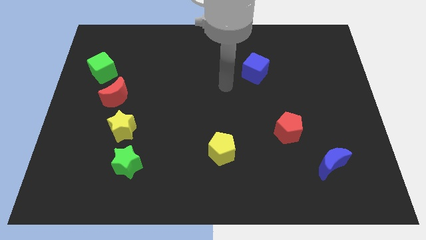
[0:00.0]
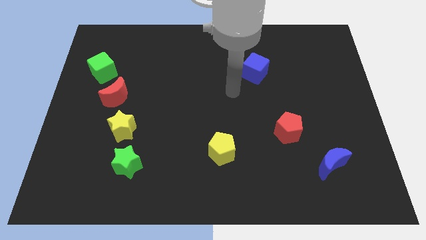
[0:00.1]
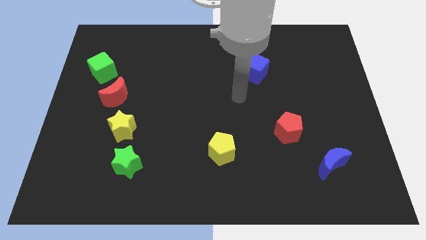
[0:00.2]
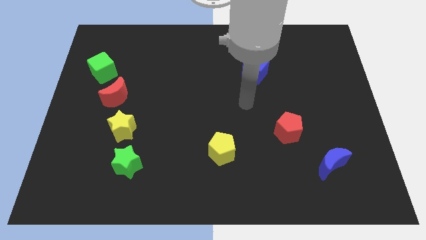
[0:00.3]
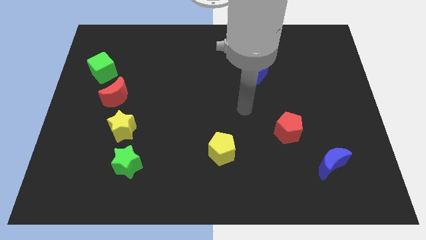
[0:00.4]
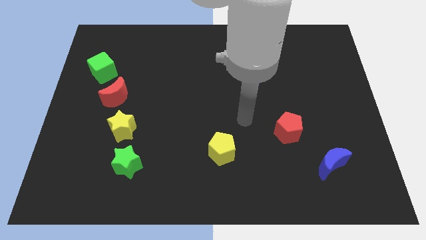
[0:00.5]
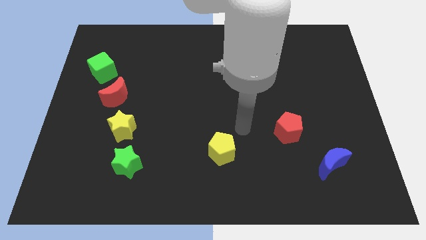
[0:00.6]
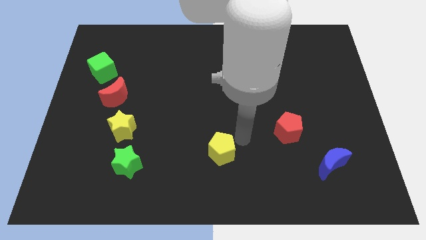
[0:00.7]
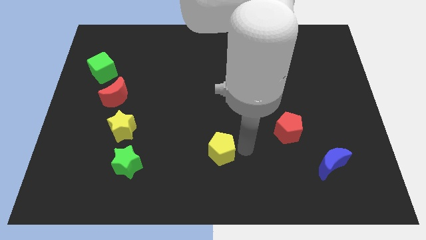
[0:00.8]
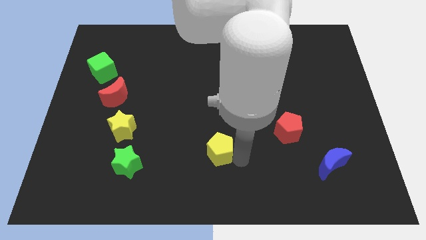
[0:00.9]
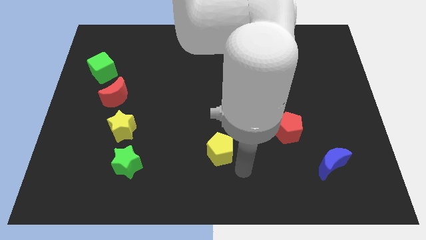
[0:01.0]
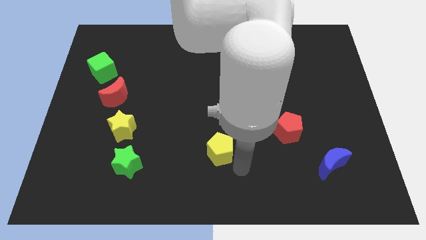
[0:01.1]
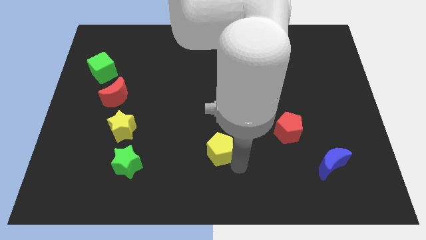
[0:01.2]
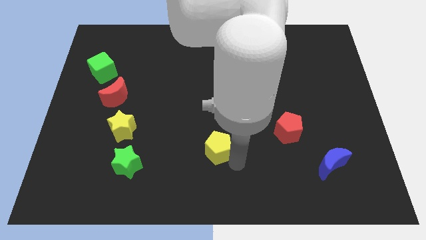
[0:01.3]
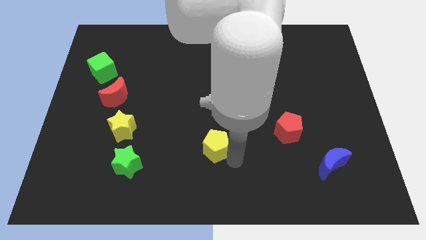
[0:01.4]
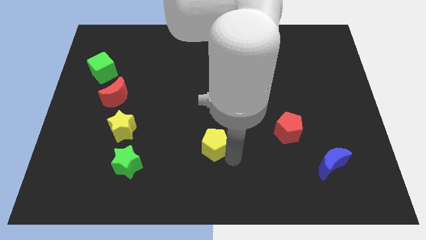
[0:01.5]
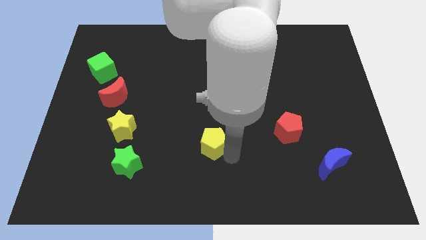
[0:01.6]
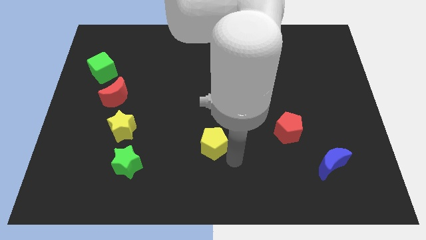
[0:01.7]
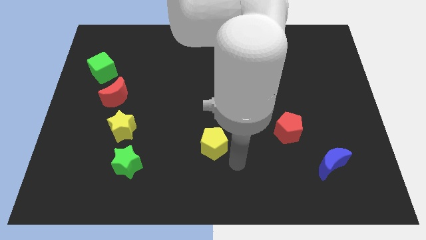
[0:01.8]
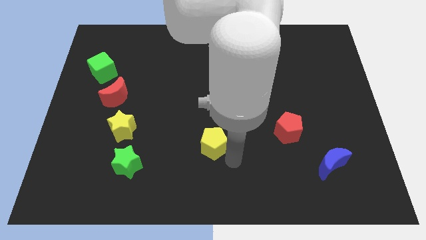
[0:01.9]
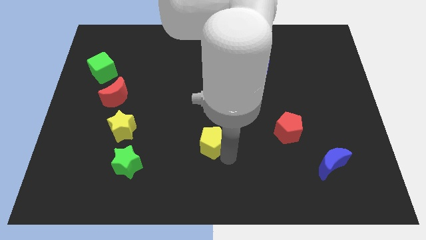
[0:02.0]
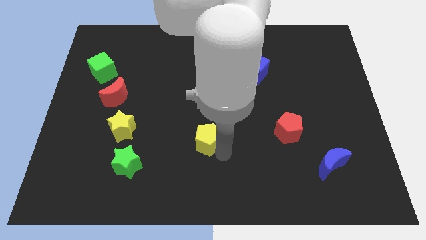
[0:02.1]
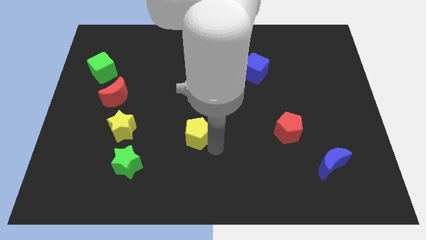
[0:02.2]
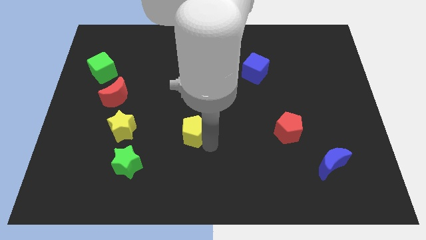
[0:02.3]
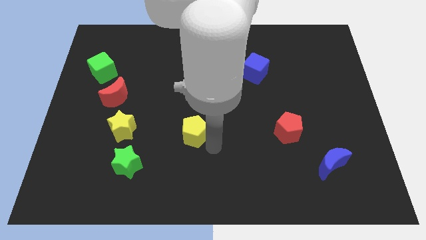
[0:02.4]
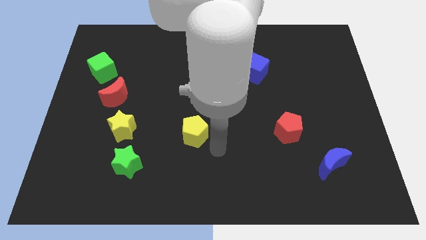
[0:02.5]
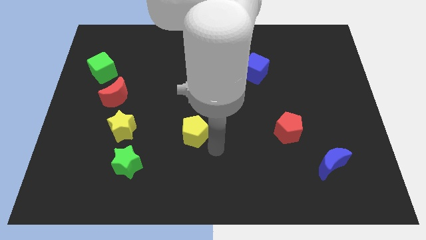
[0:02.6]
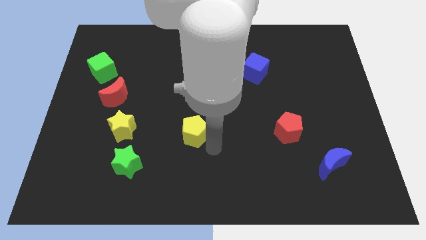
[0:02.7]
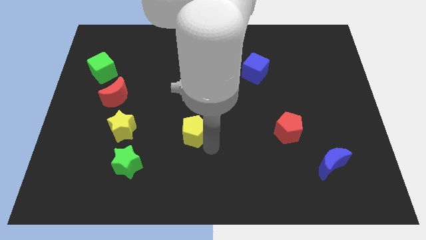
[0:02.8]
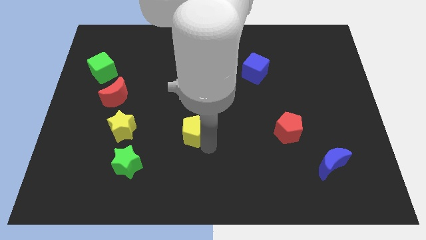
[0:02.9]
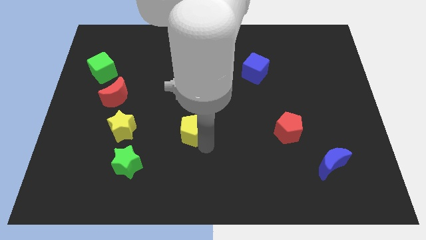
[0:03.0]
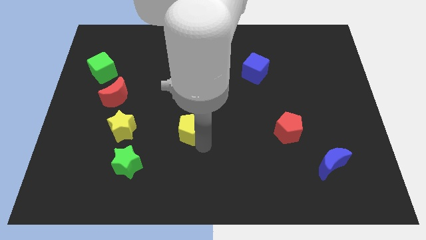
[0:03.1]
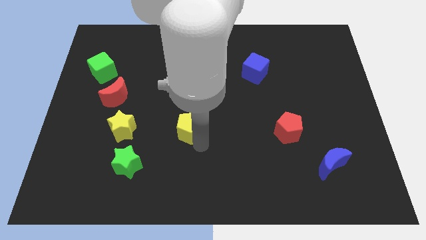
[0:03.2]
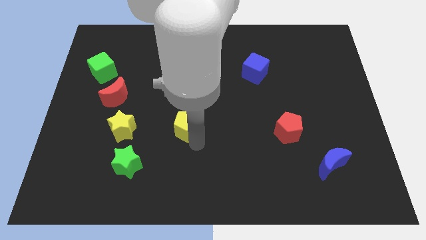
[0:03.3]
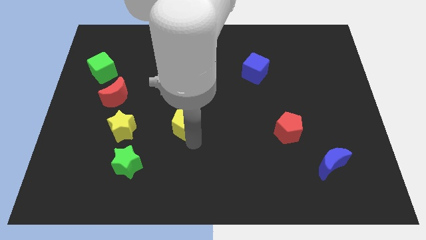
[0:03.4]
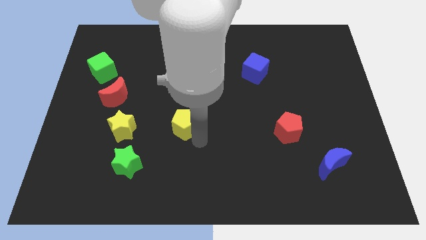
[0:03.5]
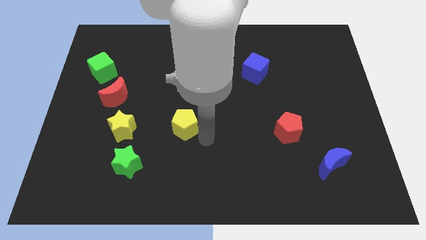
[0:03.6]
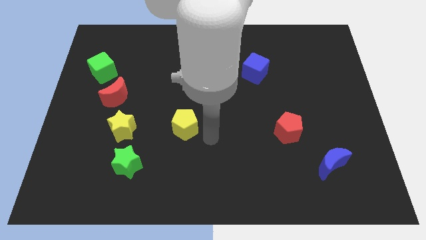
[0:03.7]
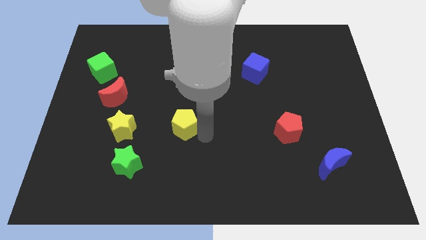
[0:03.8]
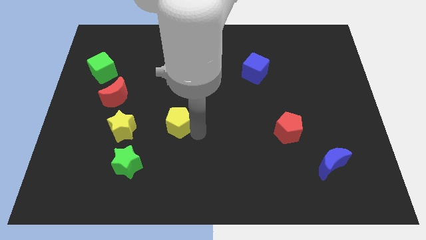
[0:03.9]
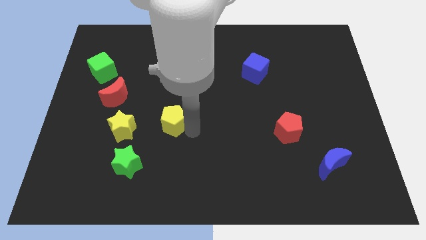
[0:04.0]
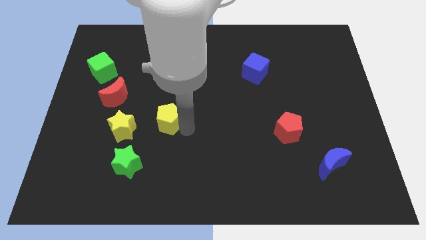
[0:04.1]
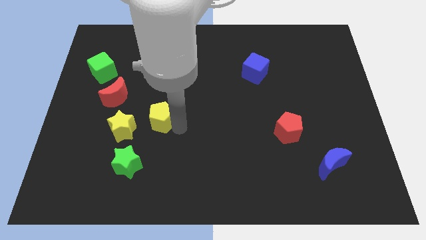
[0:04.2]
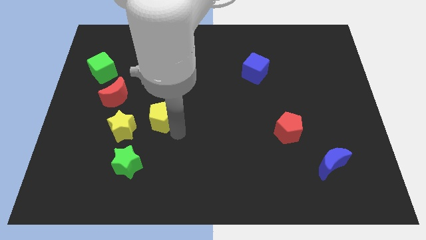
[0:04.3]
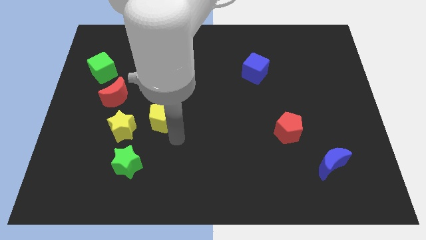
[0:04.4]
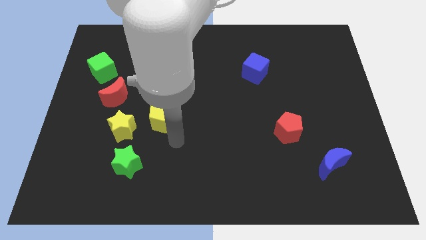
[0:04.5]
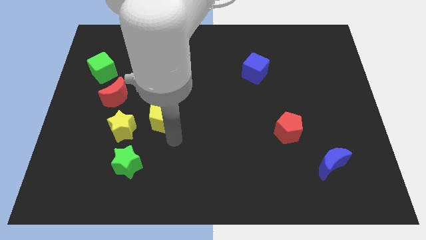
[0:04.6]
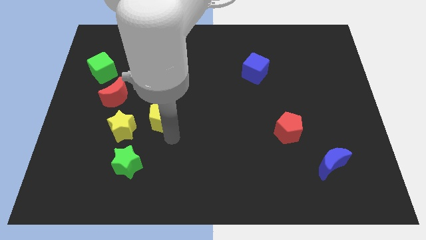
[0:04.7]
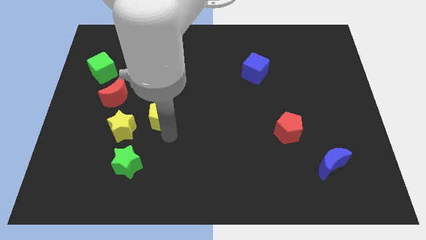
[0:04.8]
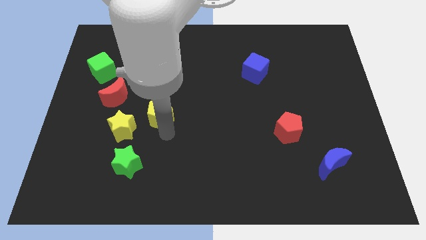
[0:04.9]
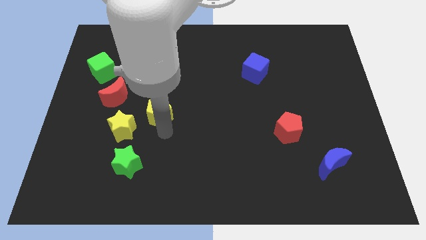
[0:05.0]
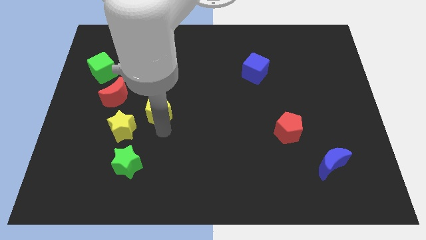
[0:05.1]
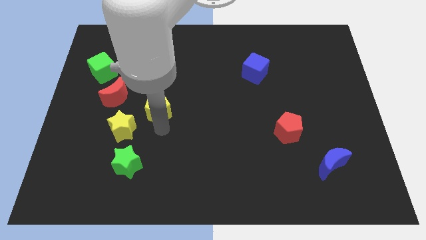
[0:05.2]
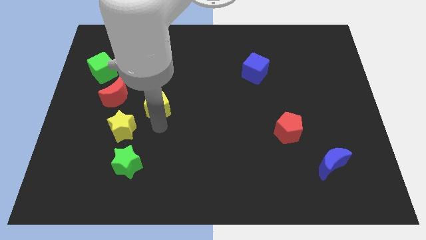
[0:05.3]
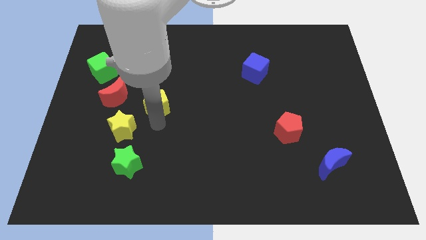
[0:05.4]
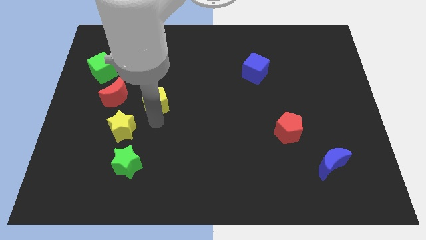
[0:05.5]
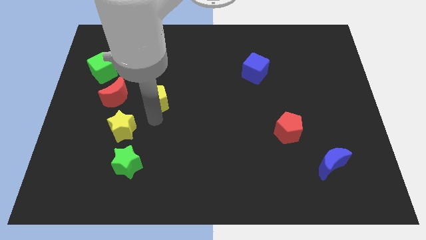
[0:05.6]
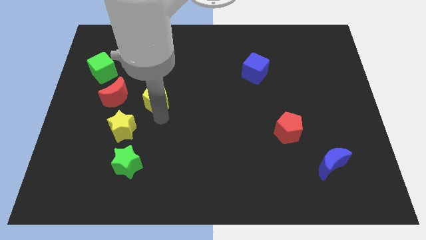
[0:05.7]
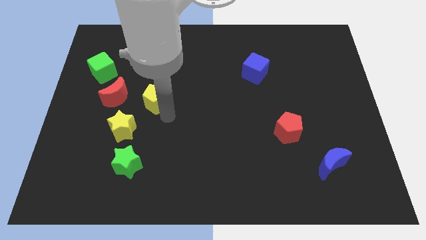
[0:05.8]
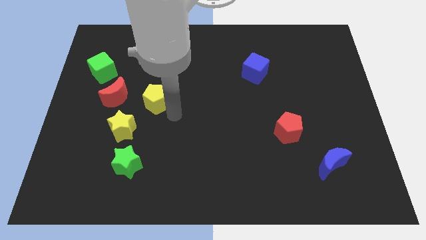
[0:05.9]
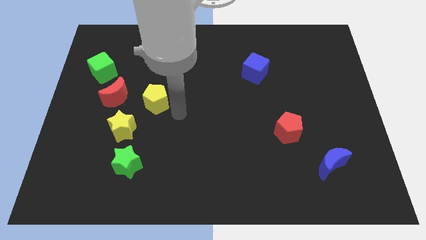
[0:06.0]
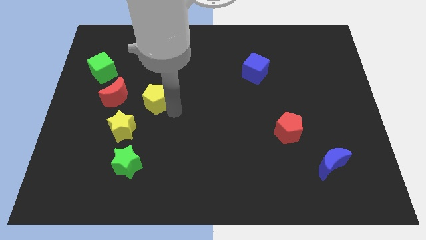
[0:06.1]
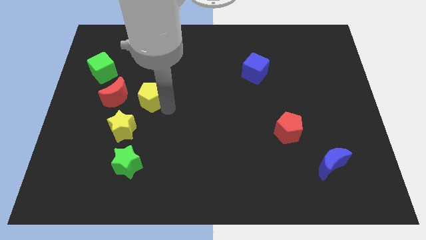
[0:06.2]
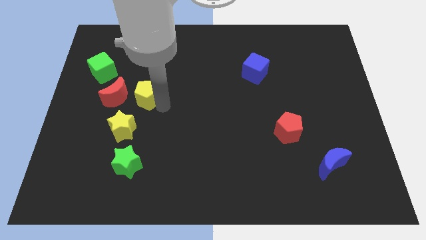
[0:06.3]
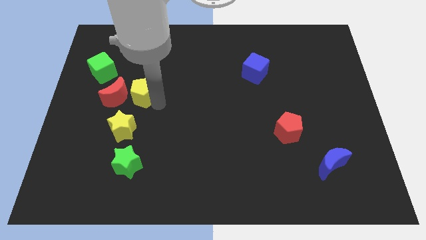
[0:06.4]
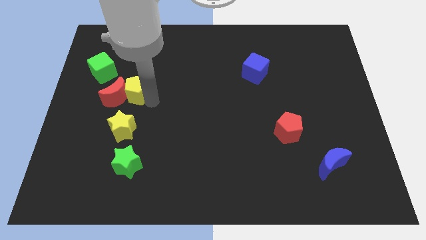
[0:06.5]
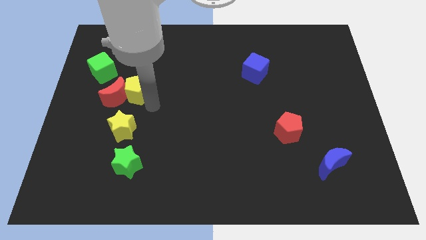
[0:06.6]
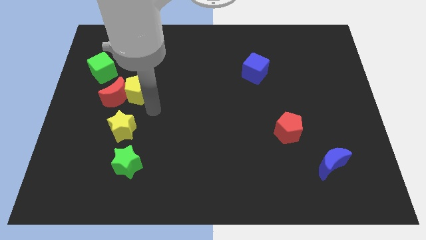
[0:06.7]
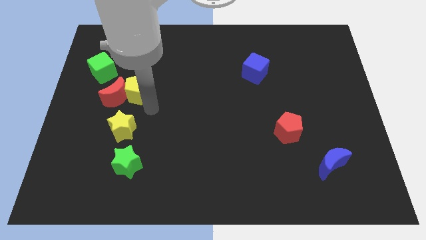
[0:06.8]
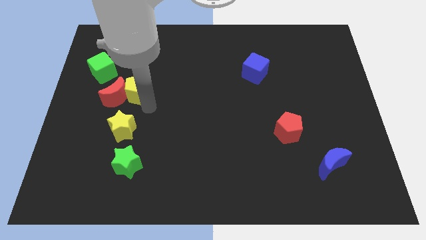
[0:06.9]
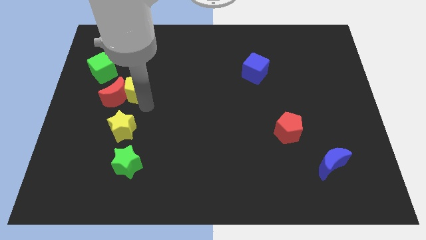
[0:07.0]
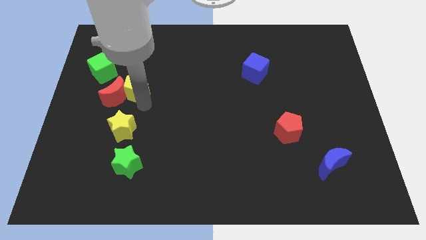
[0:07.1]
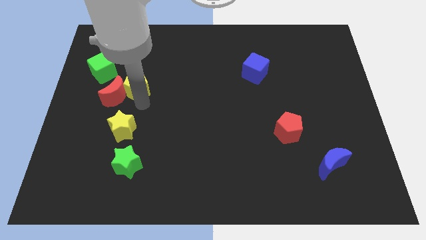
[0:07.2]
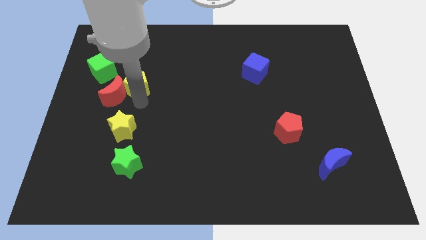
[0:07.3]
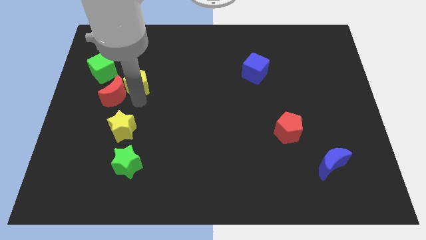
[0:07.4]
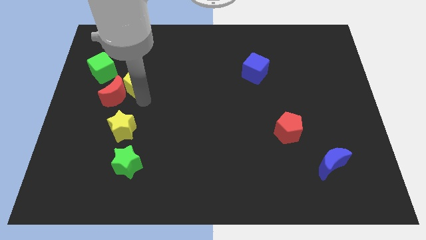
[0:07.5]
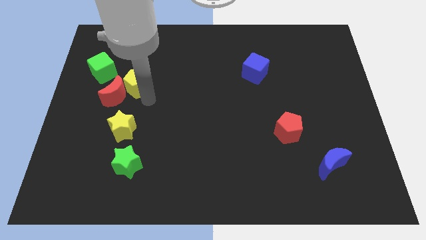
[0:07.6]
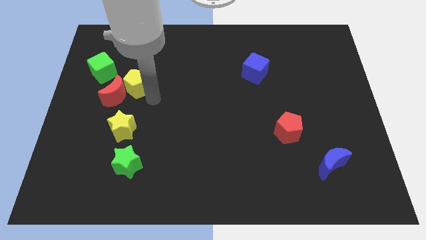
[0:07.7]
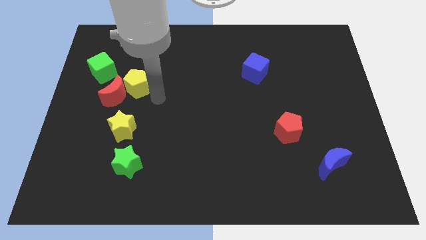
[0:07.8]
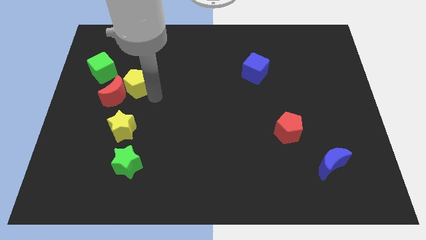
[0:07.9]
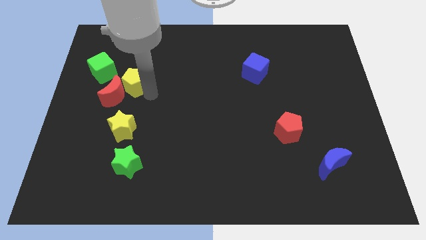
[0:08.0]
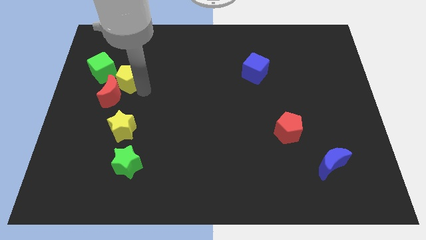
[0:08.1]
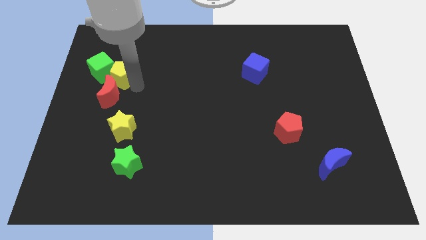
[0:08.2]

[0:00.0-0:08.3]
slide the yellow pentagon close to the green cube
